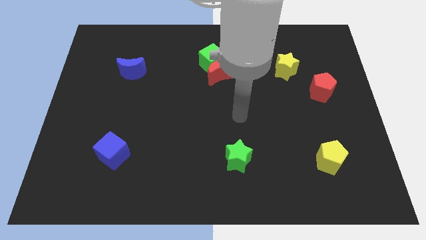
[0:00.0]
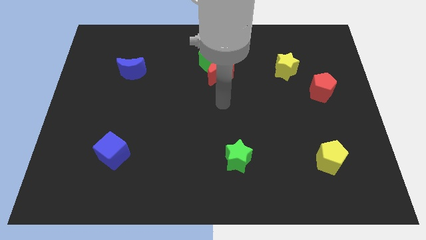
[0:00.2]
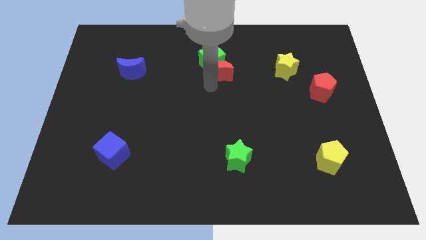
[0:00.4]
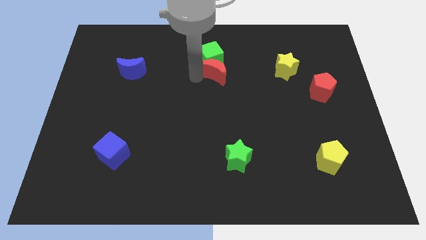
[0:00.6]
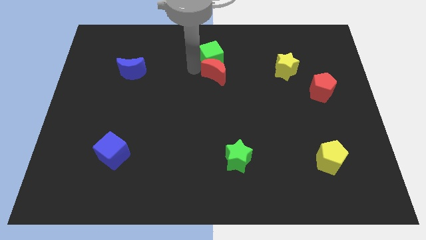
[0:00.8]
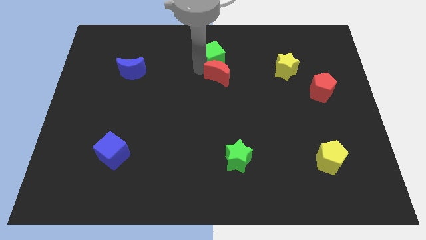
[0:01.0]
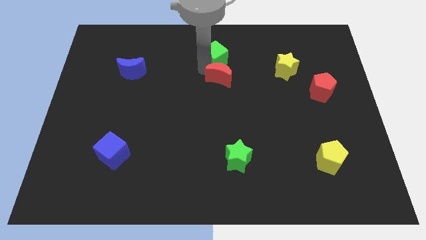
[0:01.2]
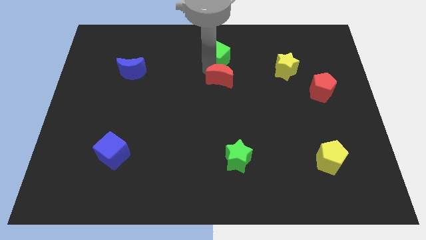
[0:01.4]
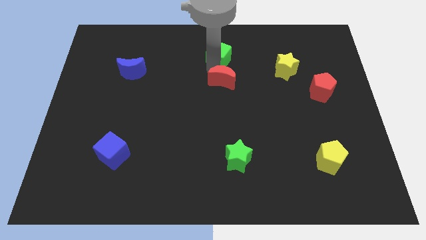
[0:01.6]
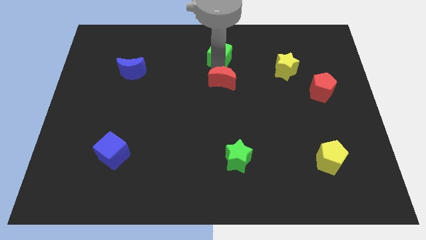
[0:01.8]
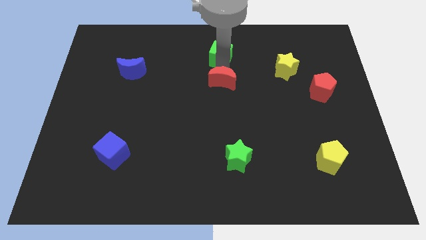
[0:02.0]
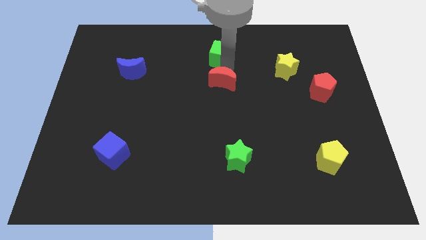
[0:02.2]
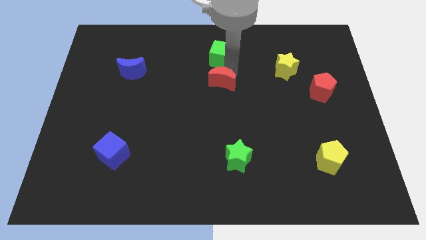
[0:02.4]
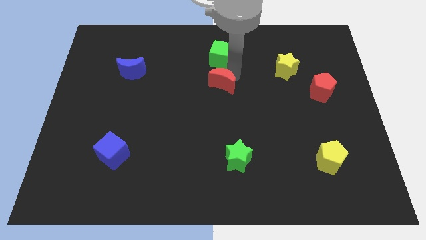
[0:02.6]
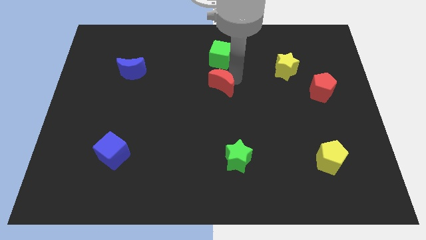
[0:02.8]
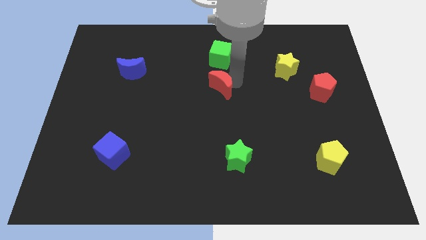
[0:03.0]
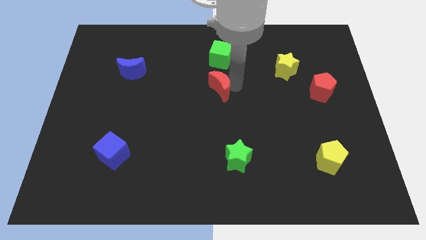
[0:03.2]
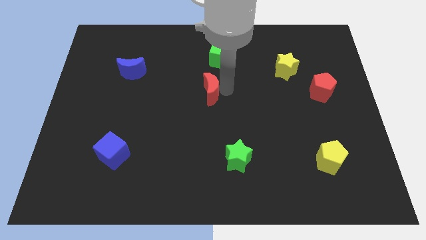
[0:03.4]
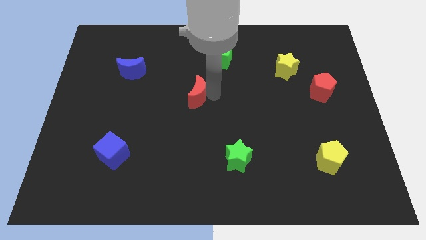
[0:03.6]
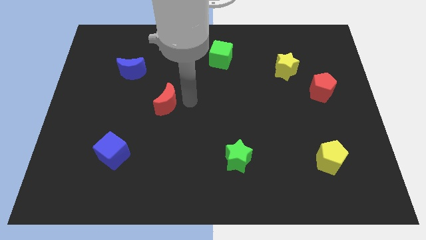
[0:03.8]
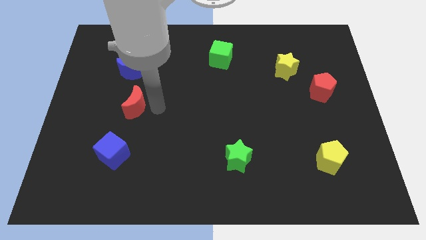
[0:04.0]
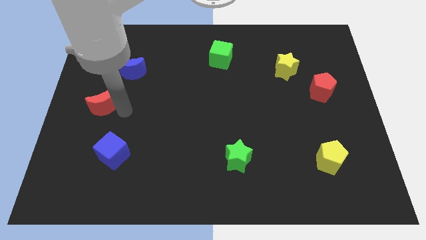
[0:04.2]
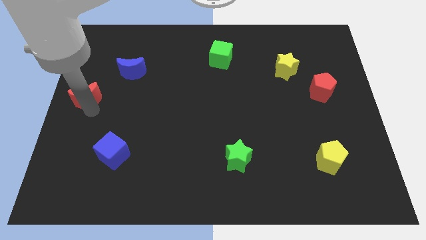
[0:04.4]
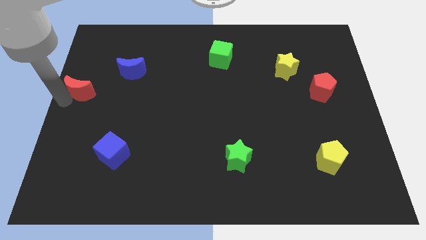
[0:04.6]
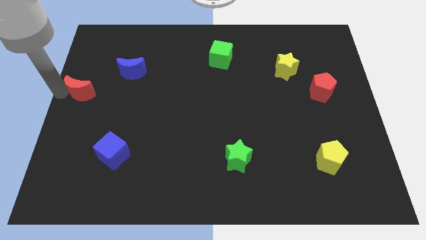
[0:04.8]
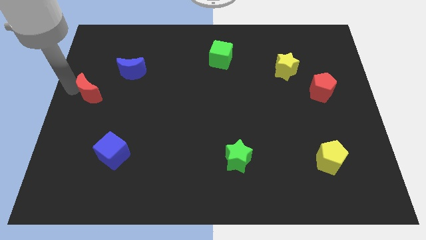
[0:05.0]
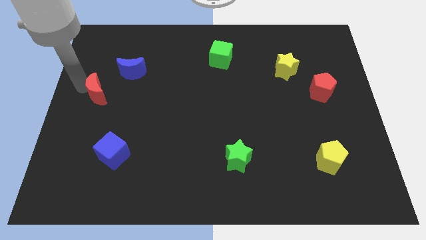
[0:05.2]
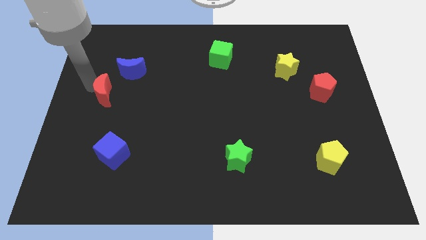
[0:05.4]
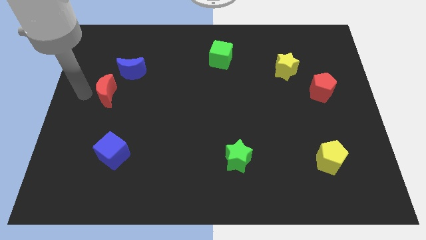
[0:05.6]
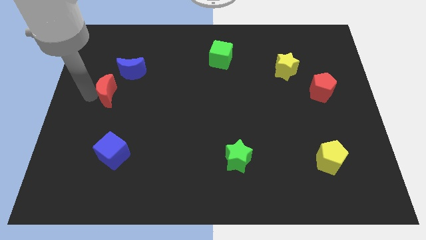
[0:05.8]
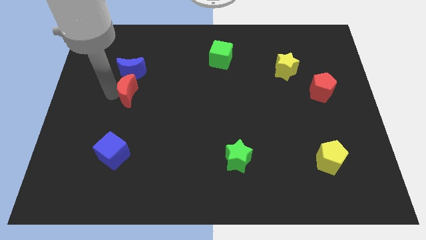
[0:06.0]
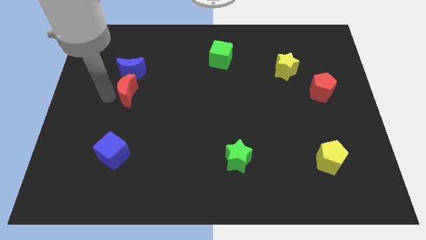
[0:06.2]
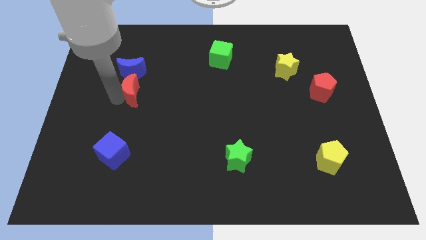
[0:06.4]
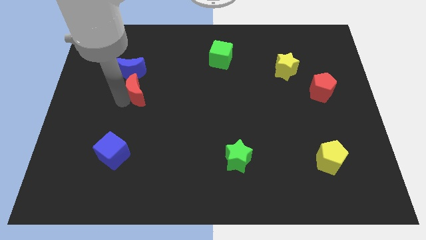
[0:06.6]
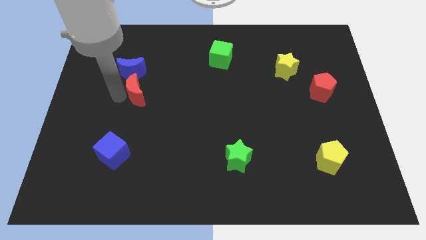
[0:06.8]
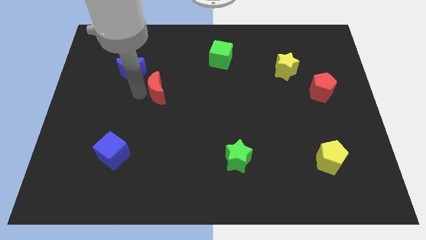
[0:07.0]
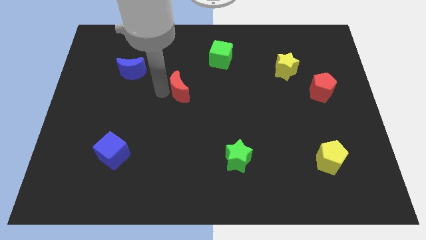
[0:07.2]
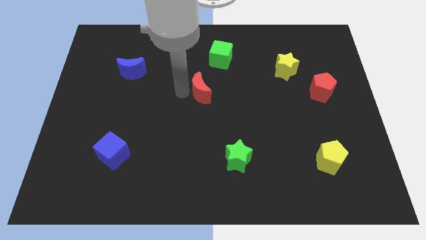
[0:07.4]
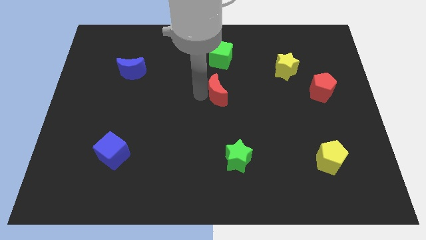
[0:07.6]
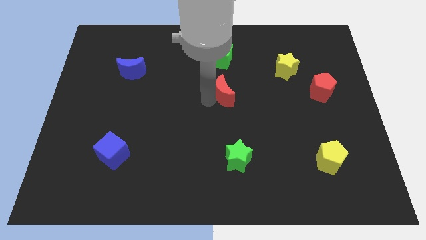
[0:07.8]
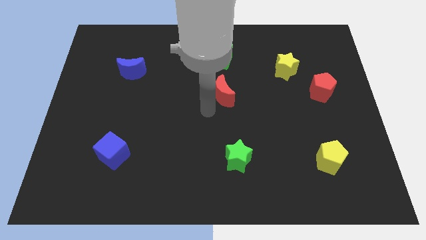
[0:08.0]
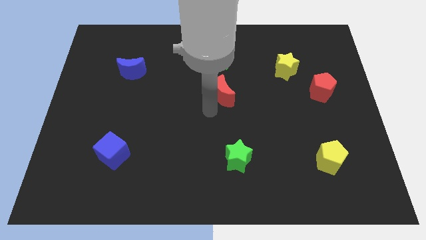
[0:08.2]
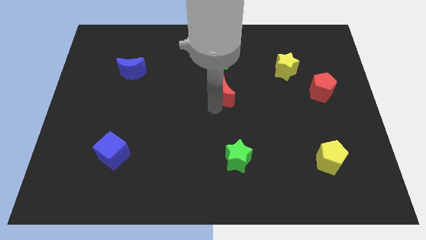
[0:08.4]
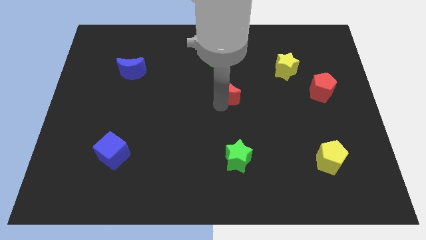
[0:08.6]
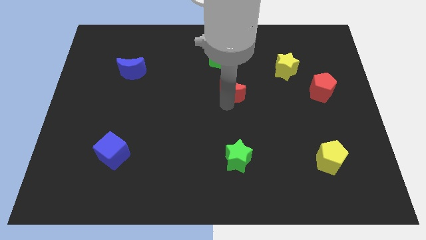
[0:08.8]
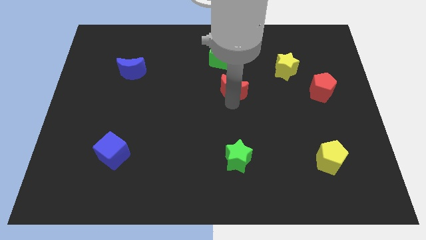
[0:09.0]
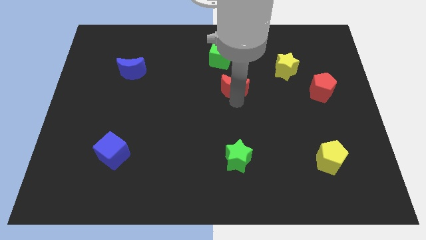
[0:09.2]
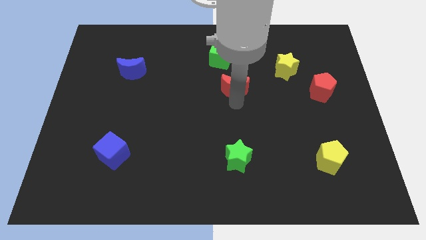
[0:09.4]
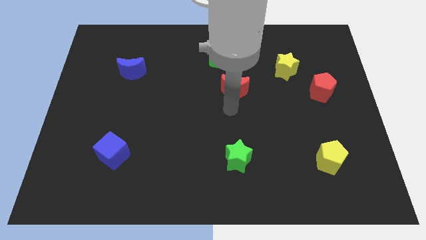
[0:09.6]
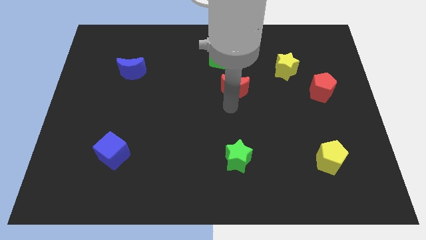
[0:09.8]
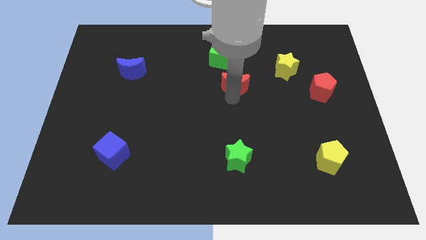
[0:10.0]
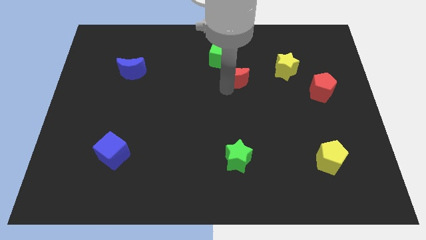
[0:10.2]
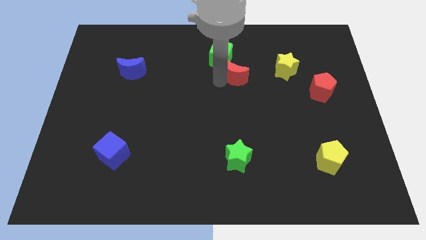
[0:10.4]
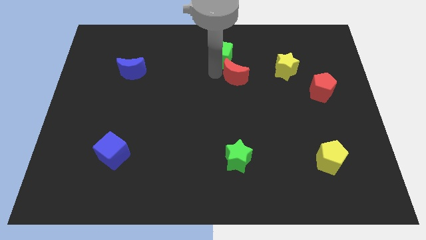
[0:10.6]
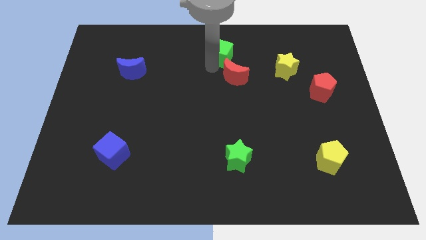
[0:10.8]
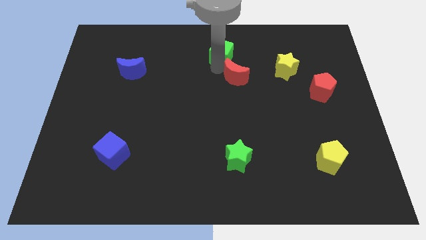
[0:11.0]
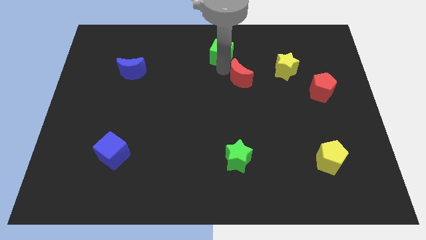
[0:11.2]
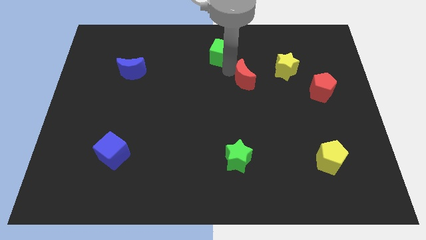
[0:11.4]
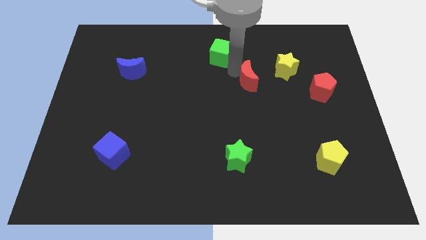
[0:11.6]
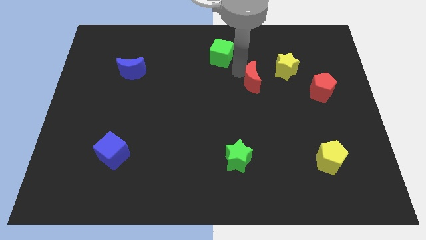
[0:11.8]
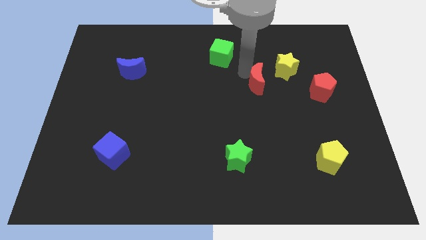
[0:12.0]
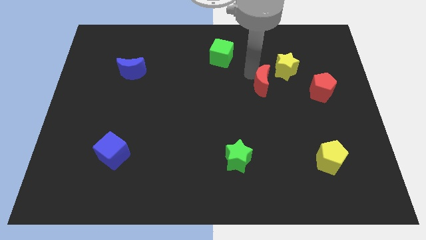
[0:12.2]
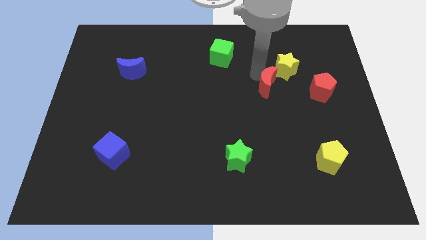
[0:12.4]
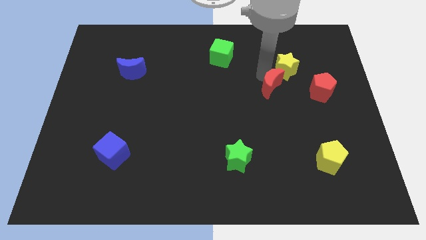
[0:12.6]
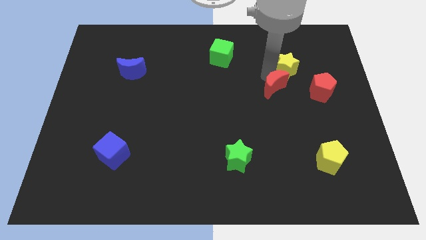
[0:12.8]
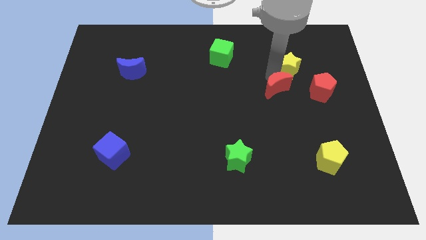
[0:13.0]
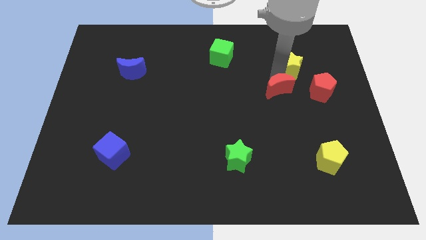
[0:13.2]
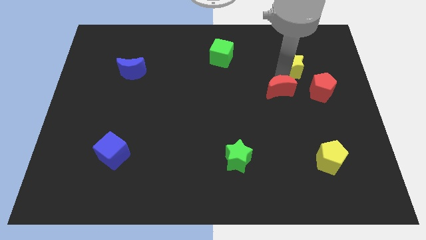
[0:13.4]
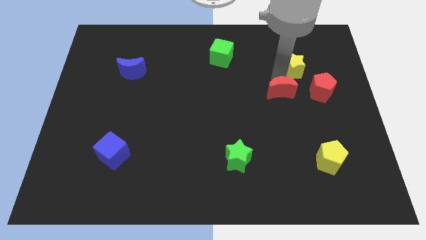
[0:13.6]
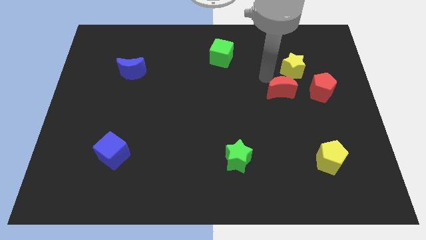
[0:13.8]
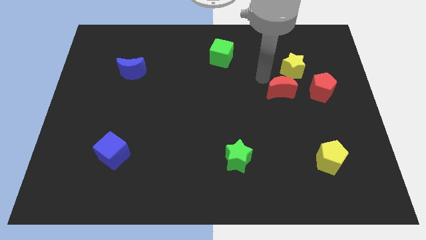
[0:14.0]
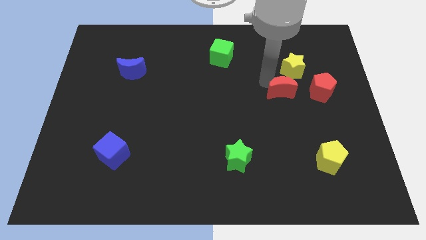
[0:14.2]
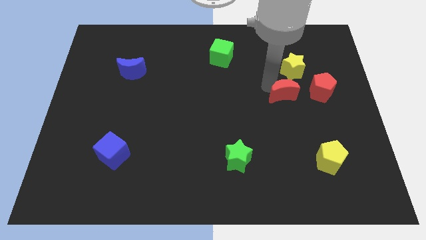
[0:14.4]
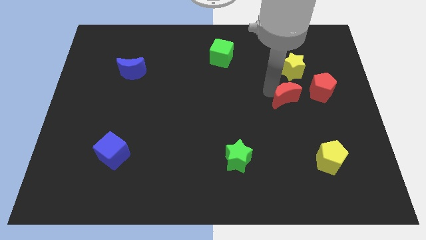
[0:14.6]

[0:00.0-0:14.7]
move the red moon to the bottom left of the red pentagon
